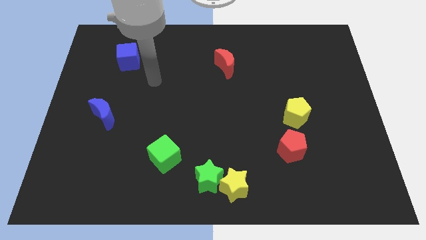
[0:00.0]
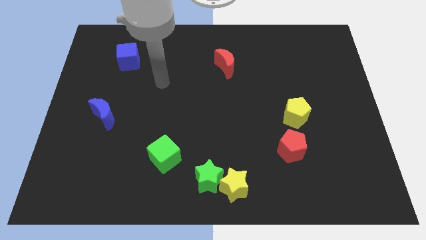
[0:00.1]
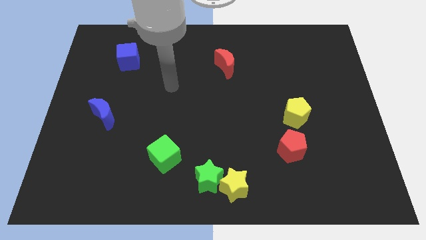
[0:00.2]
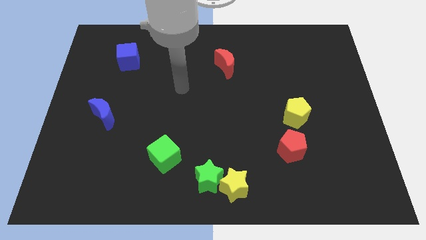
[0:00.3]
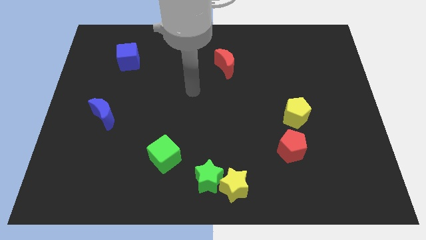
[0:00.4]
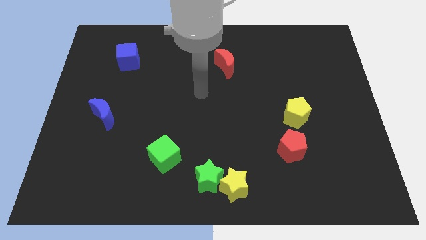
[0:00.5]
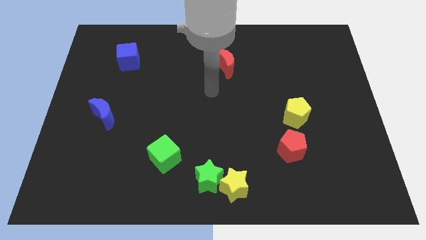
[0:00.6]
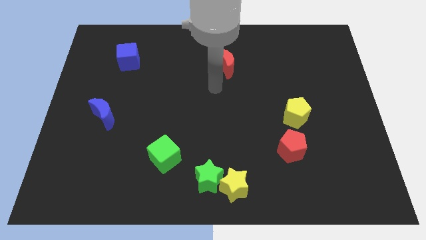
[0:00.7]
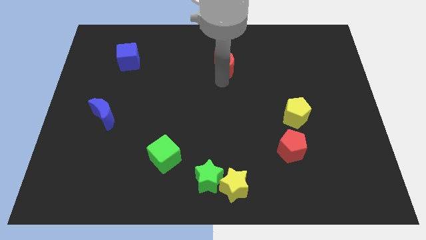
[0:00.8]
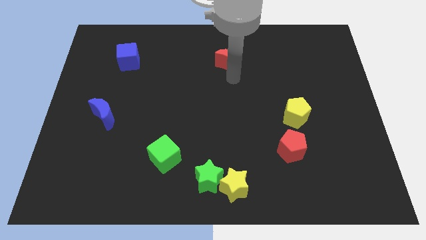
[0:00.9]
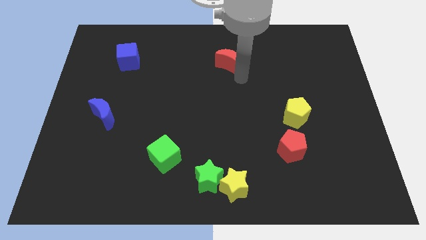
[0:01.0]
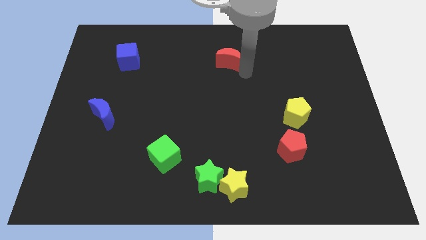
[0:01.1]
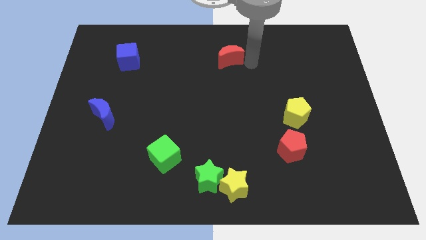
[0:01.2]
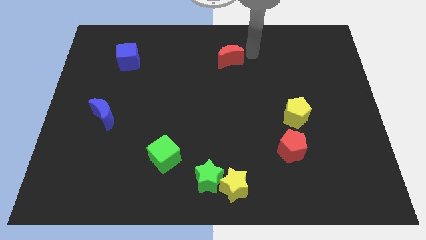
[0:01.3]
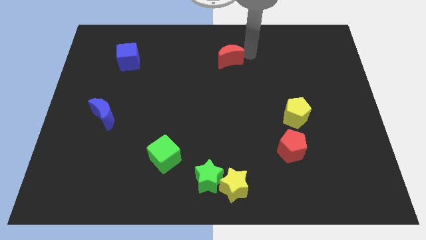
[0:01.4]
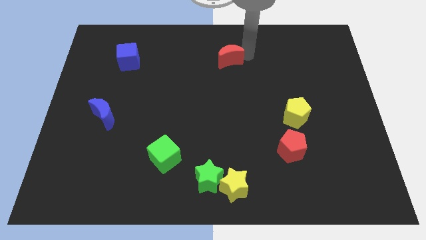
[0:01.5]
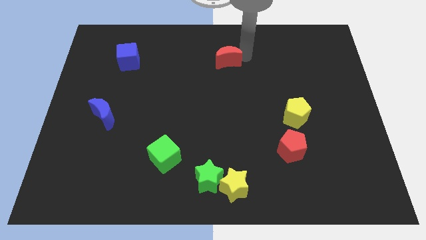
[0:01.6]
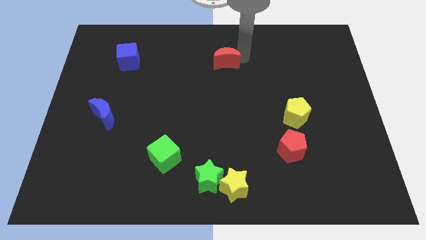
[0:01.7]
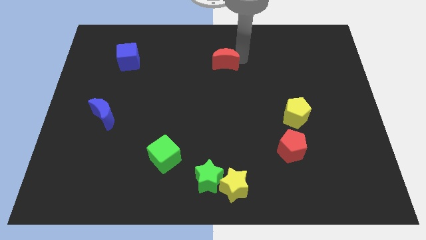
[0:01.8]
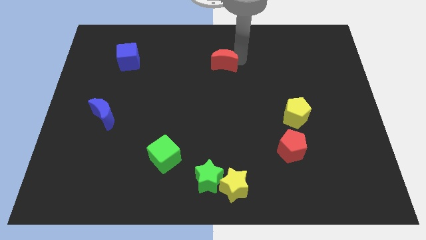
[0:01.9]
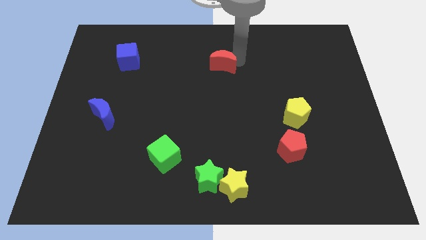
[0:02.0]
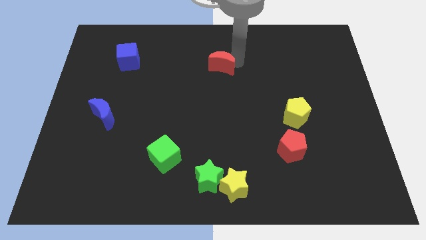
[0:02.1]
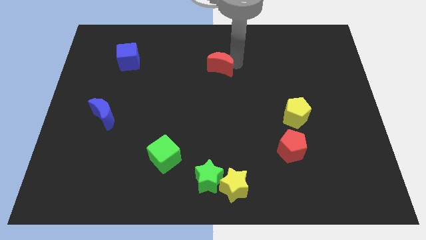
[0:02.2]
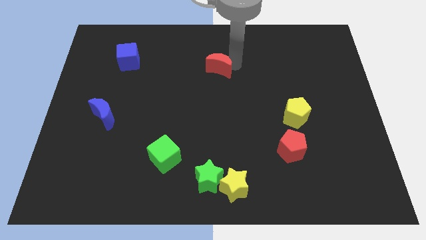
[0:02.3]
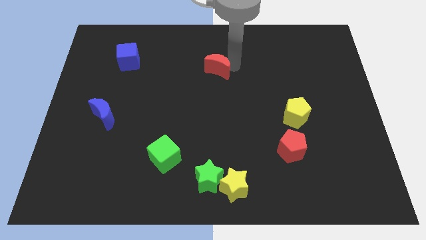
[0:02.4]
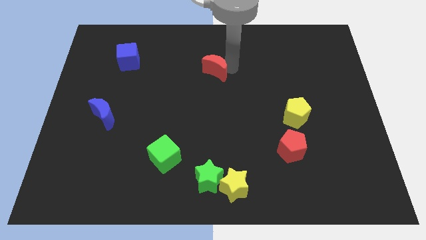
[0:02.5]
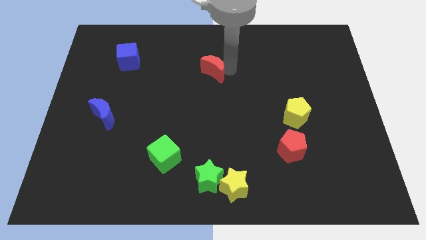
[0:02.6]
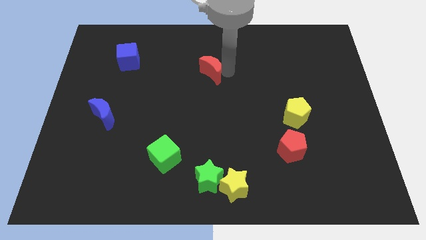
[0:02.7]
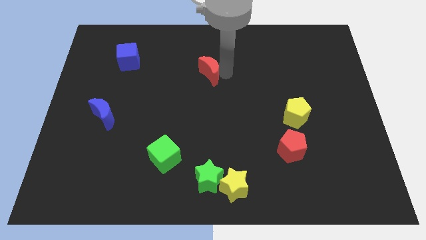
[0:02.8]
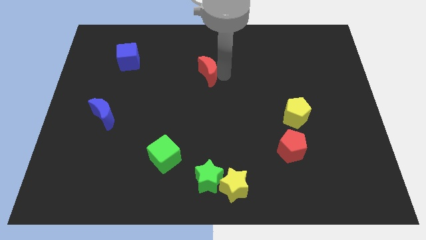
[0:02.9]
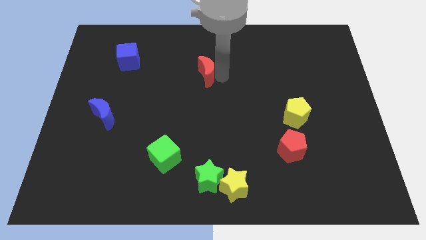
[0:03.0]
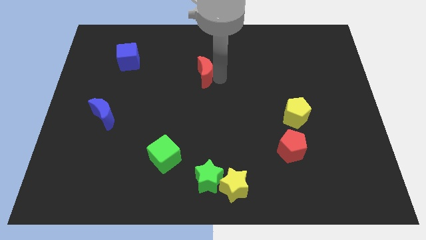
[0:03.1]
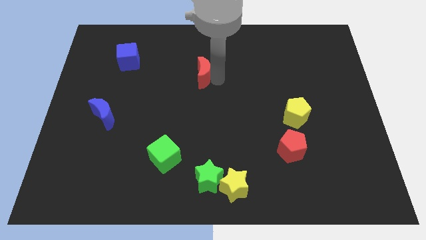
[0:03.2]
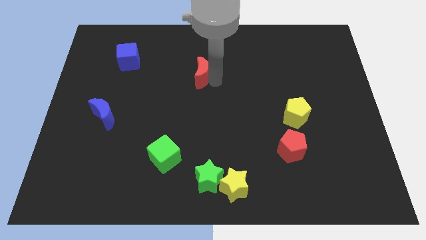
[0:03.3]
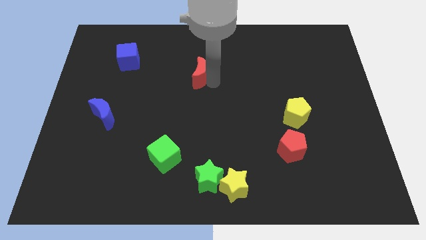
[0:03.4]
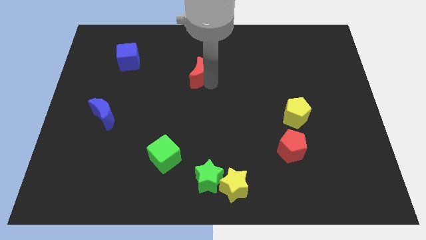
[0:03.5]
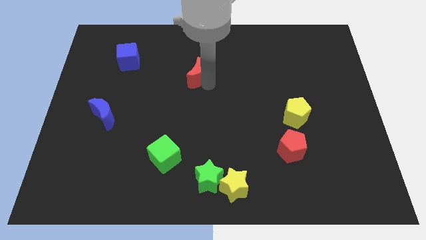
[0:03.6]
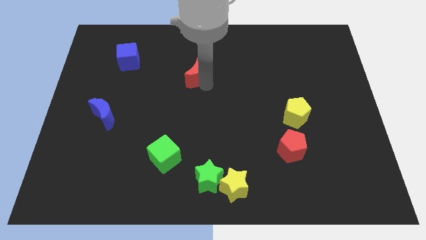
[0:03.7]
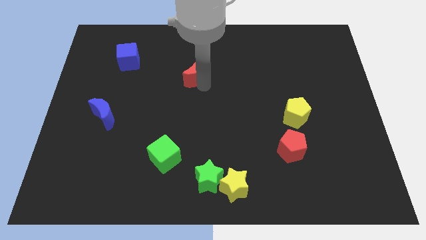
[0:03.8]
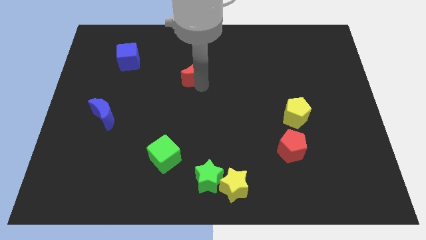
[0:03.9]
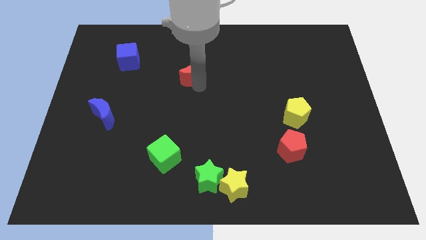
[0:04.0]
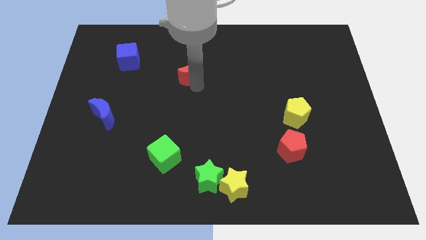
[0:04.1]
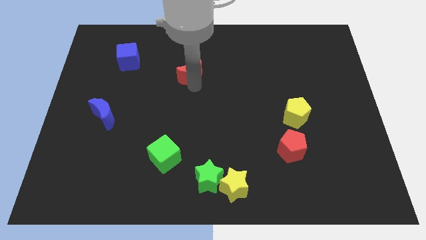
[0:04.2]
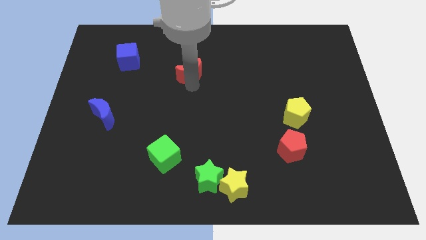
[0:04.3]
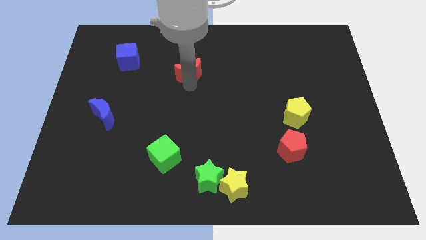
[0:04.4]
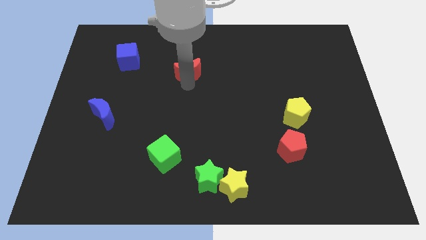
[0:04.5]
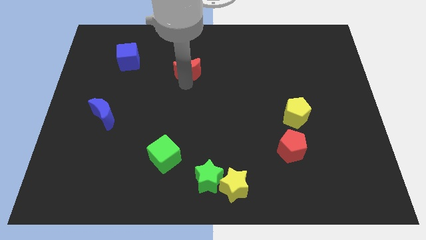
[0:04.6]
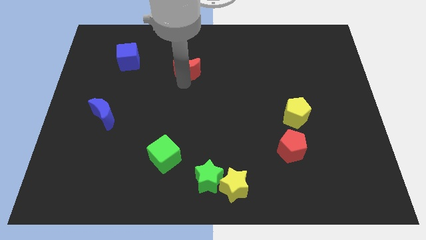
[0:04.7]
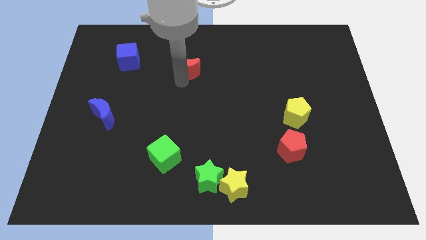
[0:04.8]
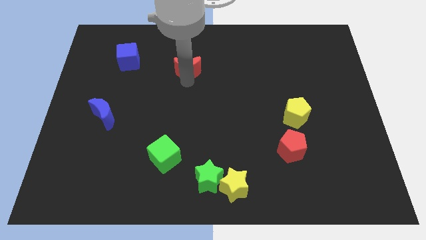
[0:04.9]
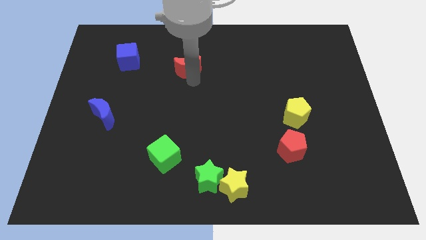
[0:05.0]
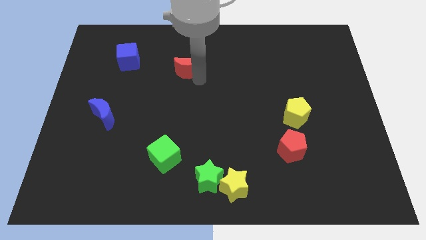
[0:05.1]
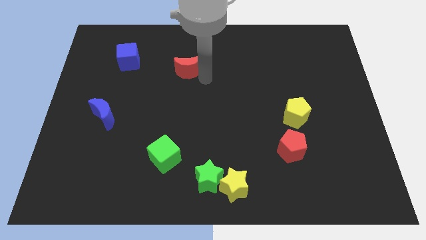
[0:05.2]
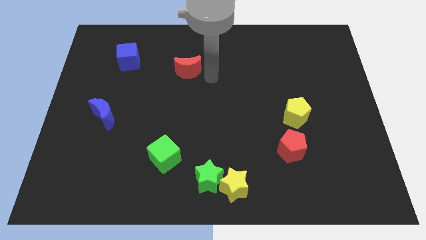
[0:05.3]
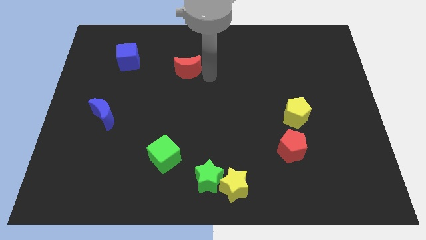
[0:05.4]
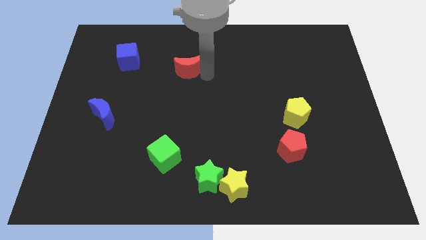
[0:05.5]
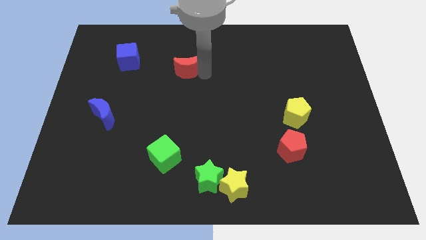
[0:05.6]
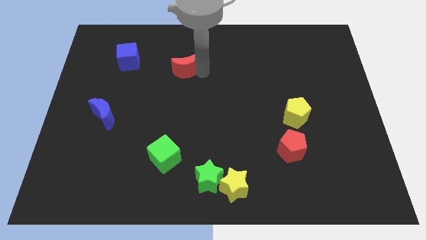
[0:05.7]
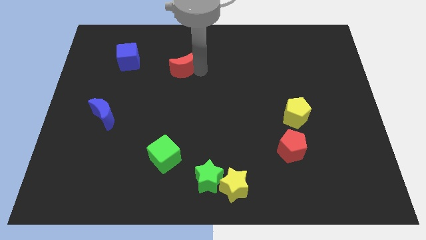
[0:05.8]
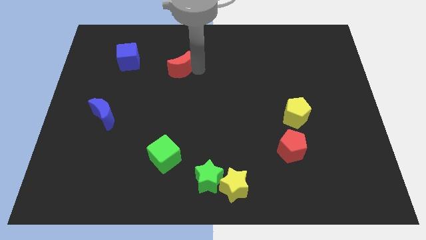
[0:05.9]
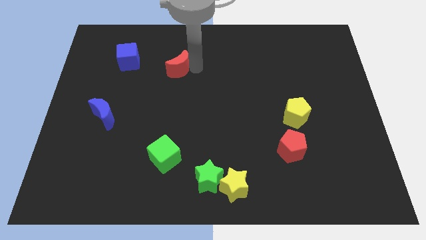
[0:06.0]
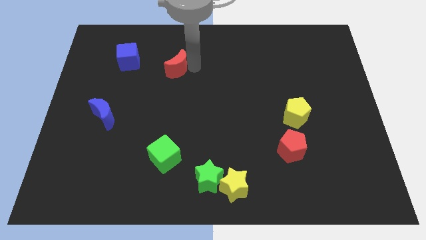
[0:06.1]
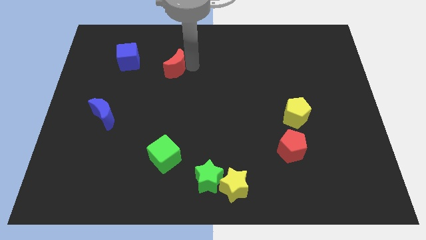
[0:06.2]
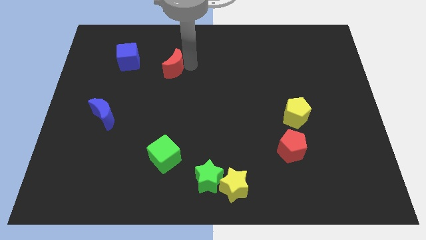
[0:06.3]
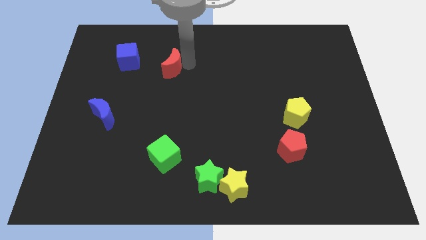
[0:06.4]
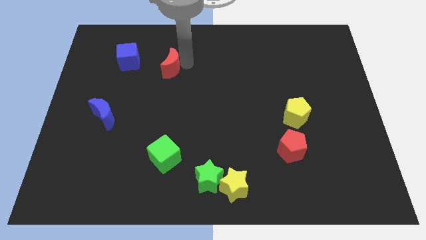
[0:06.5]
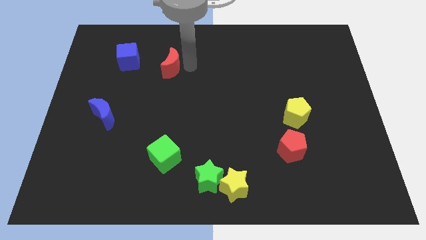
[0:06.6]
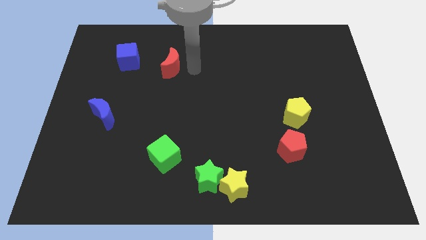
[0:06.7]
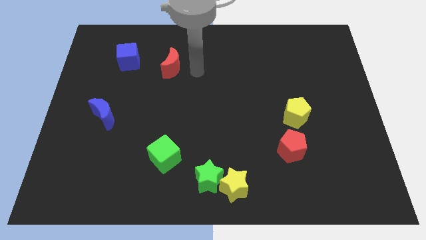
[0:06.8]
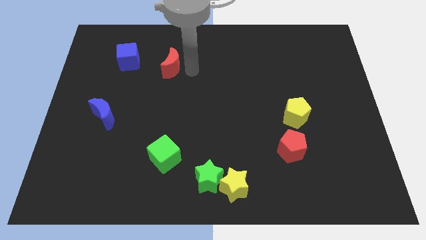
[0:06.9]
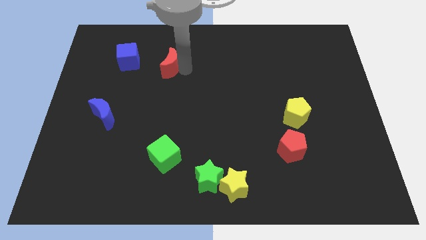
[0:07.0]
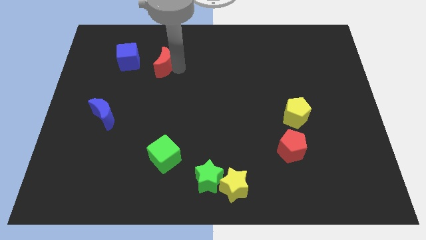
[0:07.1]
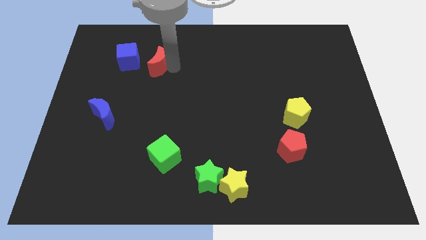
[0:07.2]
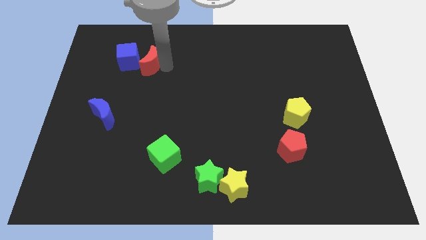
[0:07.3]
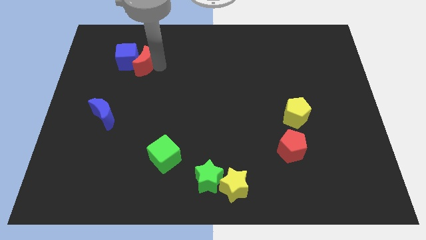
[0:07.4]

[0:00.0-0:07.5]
move the red moon towards the blue cube

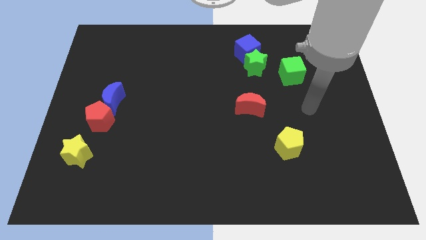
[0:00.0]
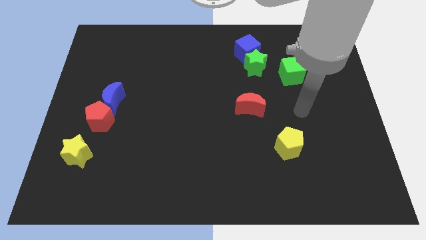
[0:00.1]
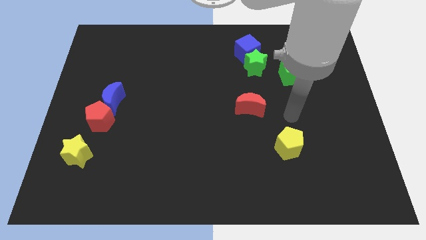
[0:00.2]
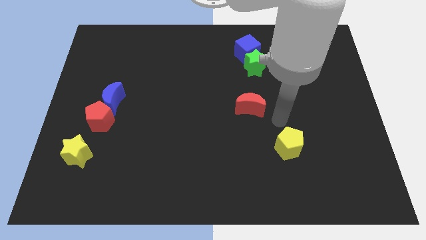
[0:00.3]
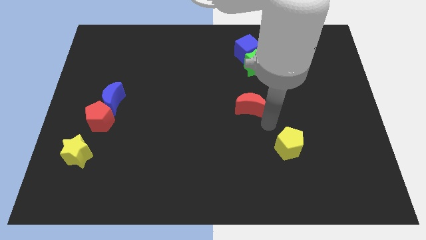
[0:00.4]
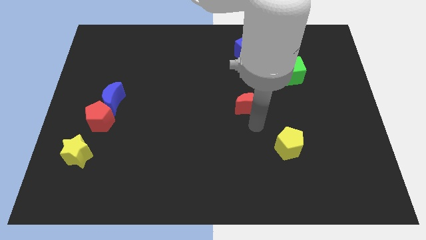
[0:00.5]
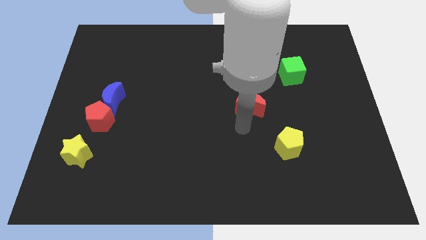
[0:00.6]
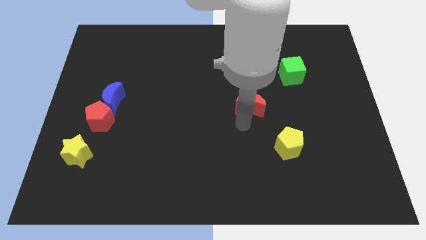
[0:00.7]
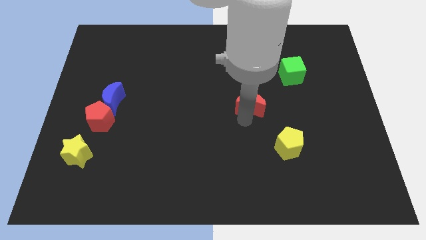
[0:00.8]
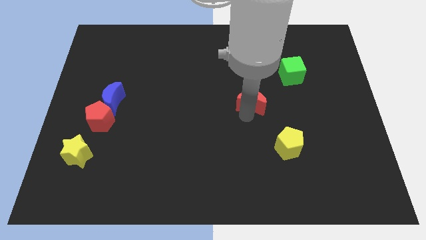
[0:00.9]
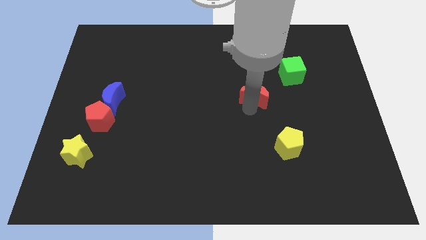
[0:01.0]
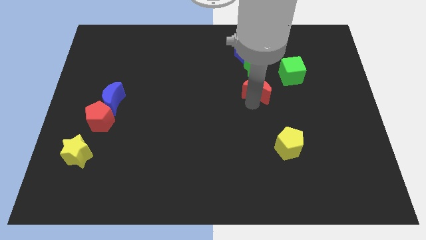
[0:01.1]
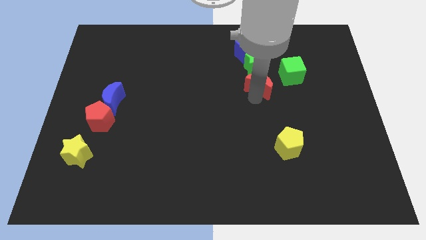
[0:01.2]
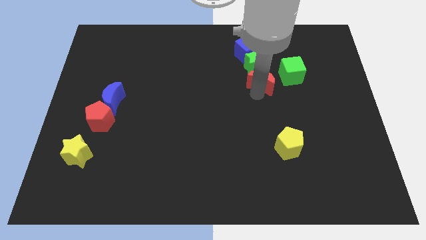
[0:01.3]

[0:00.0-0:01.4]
move the red moon towards the green star
